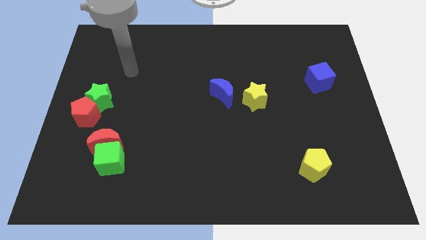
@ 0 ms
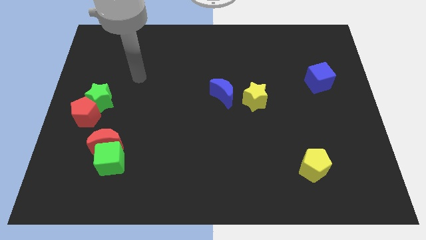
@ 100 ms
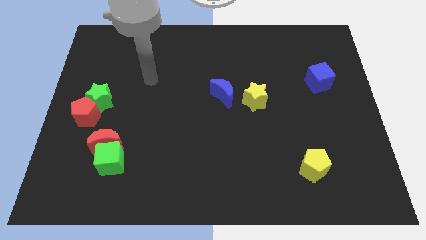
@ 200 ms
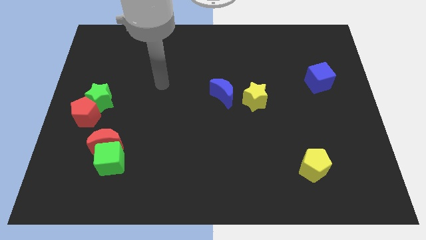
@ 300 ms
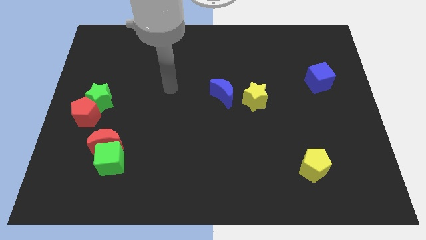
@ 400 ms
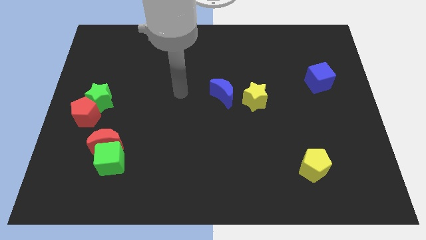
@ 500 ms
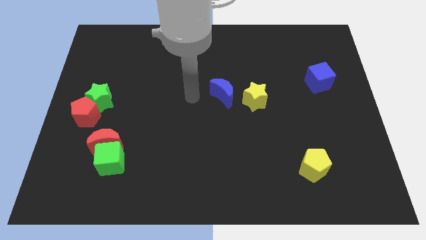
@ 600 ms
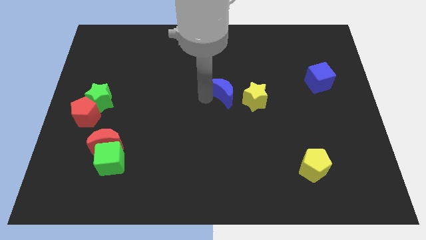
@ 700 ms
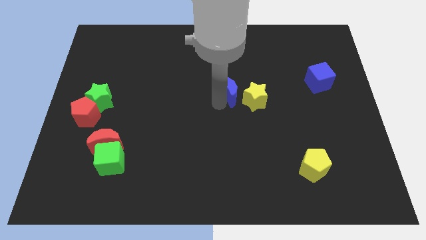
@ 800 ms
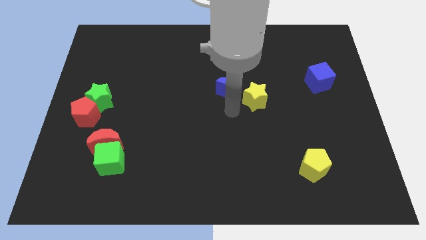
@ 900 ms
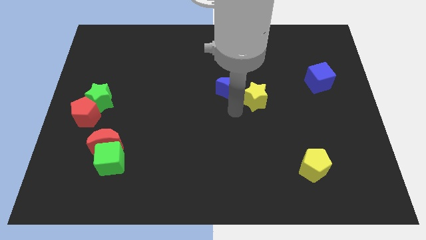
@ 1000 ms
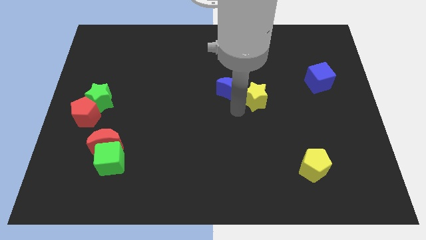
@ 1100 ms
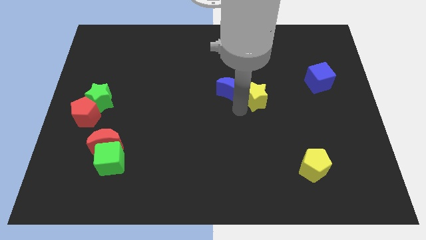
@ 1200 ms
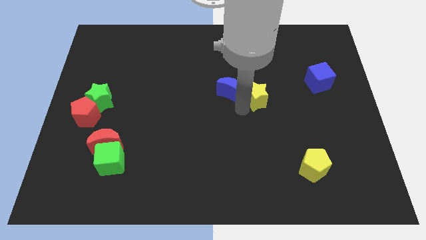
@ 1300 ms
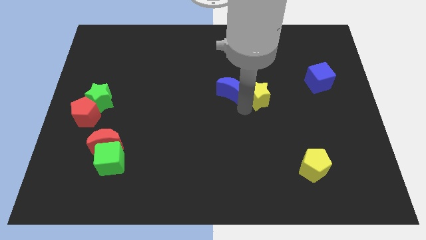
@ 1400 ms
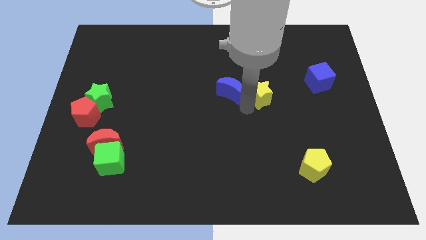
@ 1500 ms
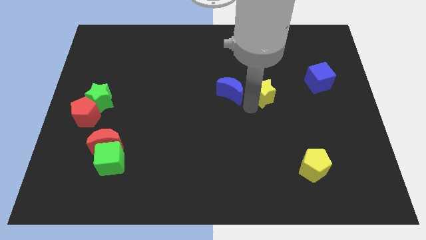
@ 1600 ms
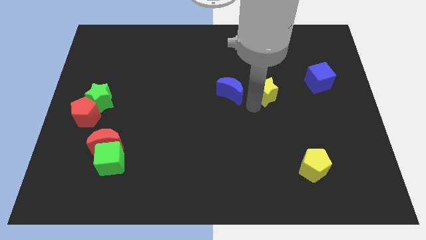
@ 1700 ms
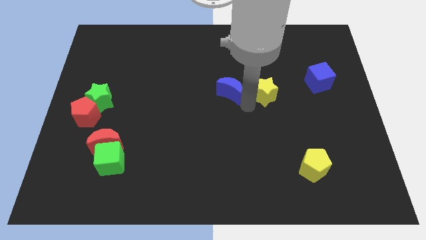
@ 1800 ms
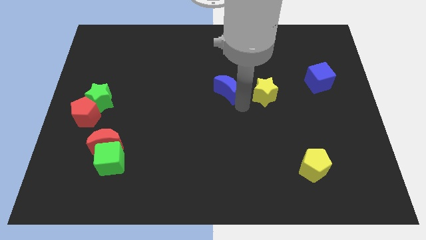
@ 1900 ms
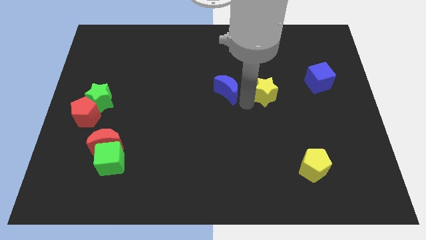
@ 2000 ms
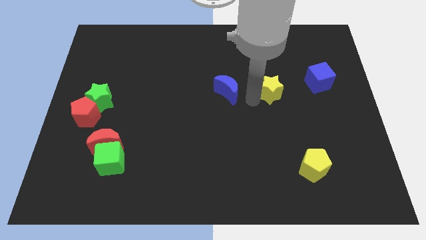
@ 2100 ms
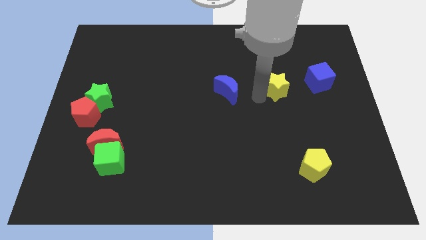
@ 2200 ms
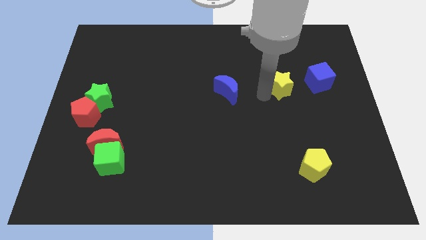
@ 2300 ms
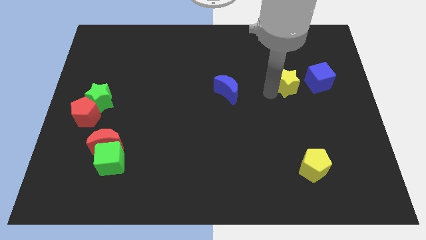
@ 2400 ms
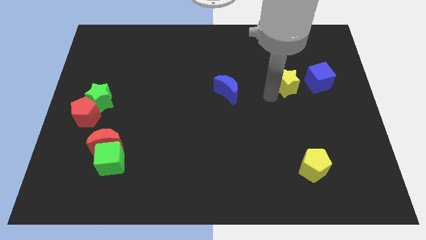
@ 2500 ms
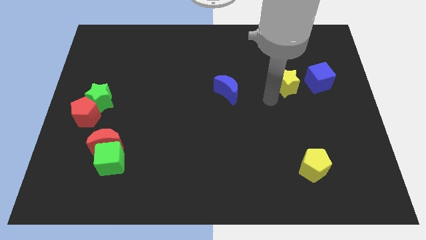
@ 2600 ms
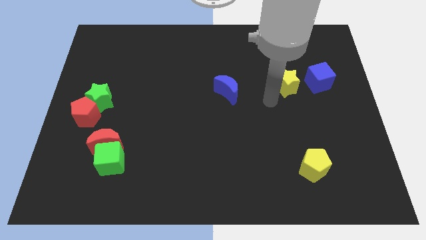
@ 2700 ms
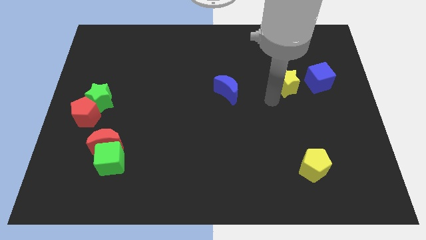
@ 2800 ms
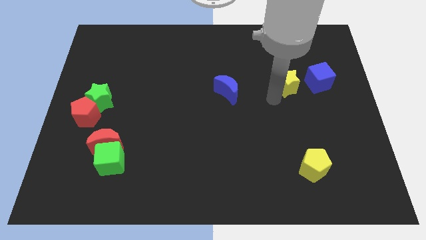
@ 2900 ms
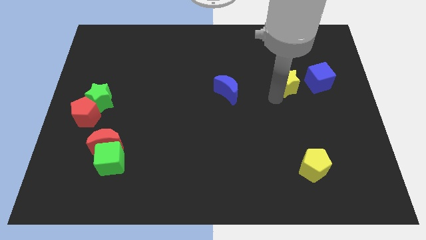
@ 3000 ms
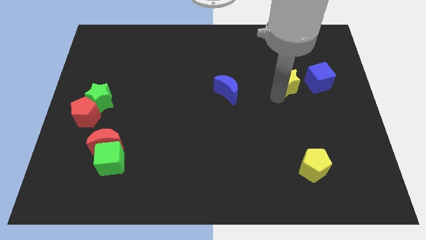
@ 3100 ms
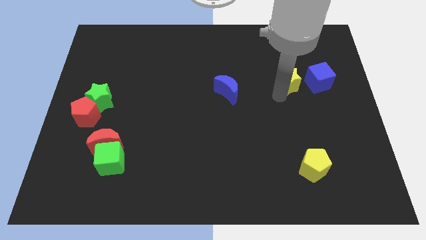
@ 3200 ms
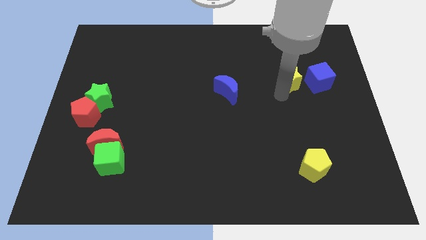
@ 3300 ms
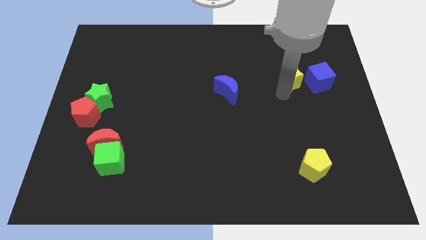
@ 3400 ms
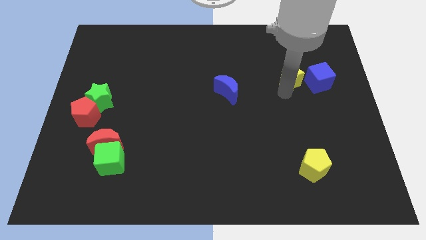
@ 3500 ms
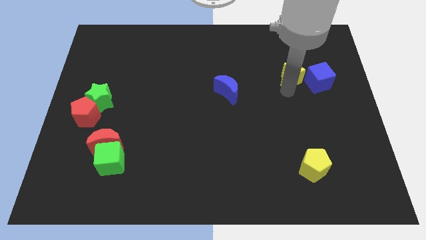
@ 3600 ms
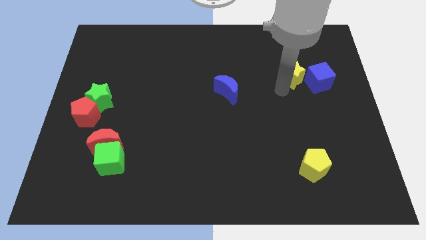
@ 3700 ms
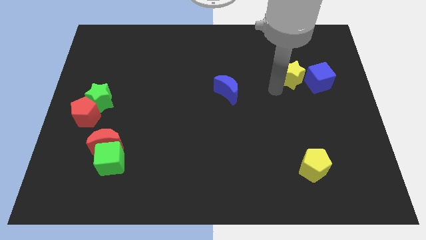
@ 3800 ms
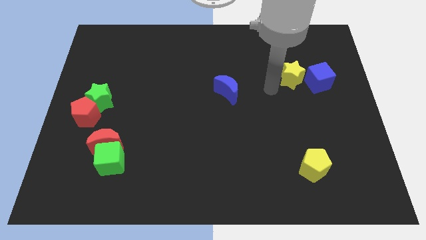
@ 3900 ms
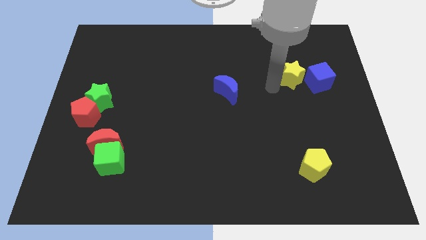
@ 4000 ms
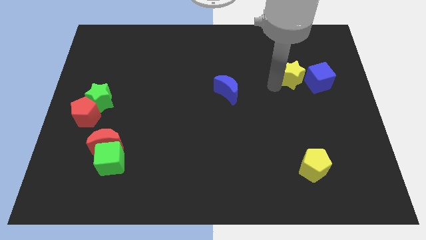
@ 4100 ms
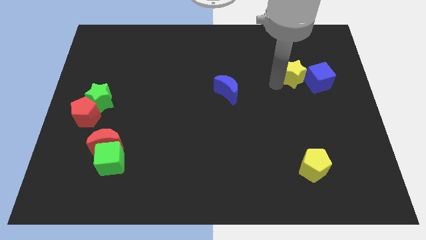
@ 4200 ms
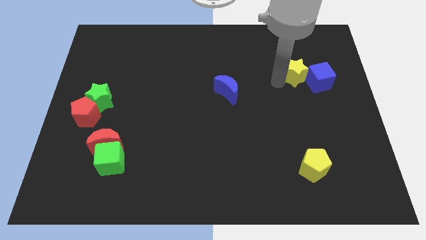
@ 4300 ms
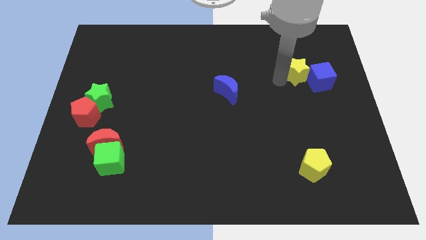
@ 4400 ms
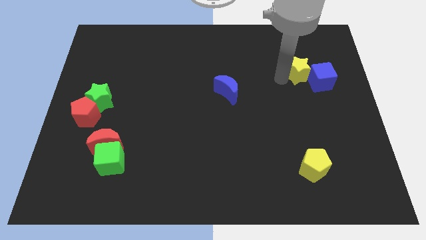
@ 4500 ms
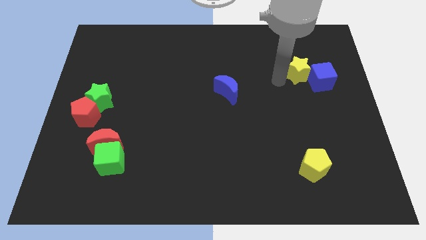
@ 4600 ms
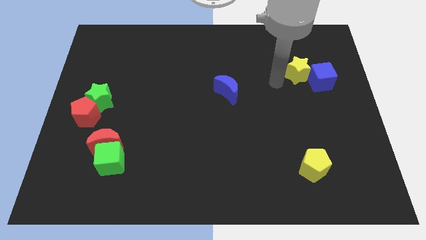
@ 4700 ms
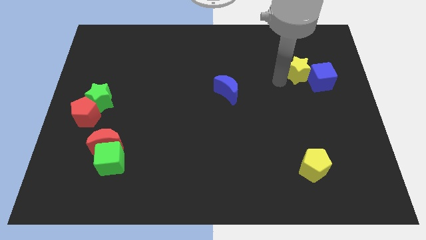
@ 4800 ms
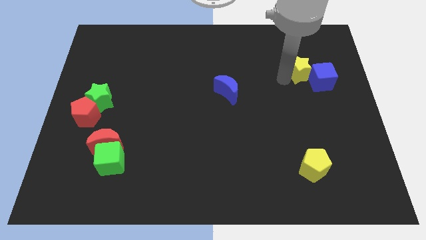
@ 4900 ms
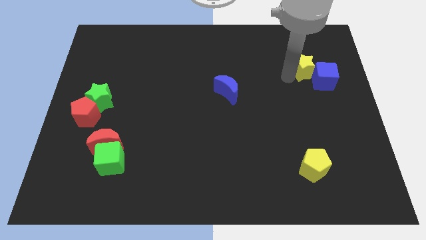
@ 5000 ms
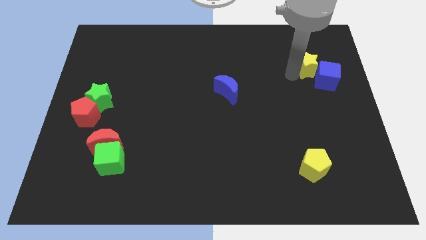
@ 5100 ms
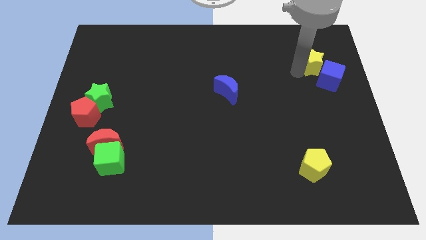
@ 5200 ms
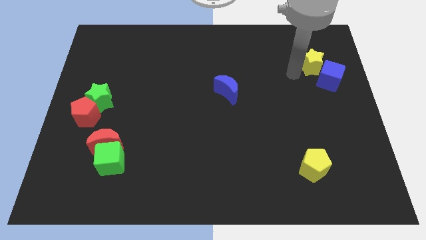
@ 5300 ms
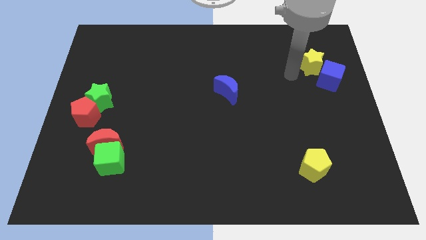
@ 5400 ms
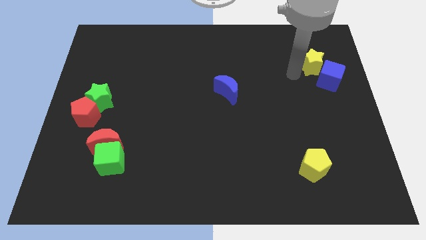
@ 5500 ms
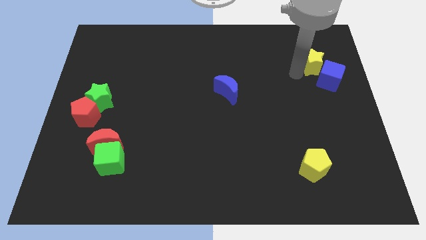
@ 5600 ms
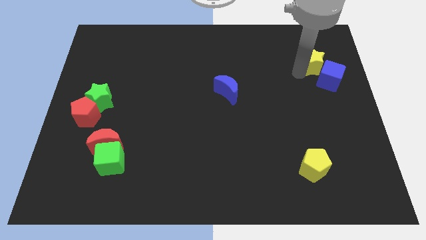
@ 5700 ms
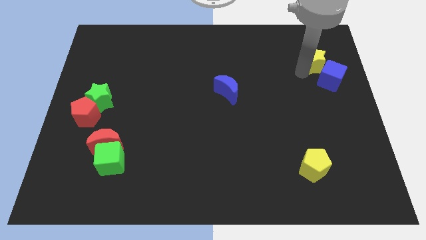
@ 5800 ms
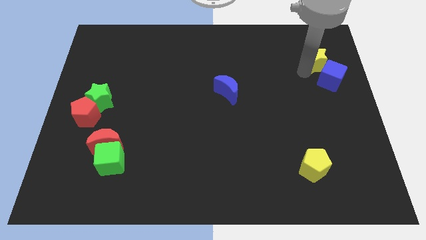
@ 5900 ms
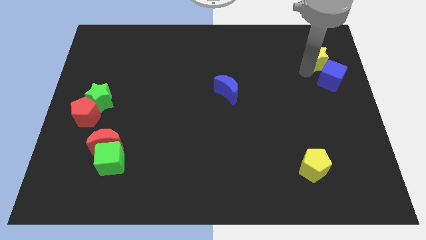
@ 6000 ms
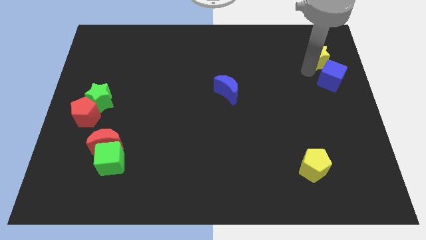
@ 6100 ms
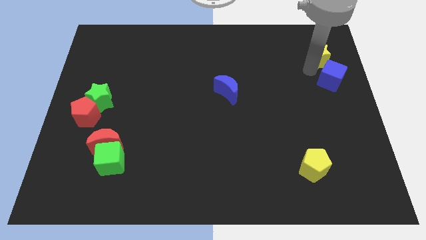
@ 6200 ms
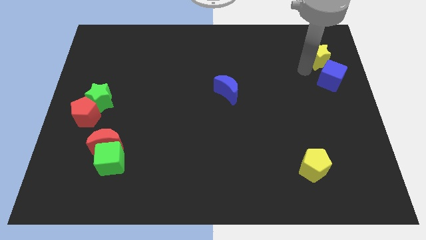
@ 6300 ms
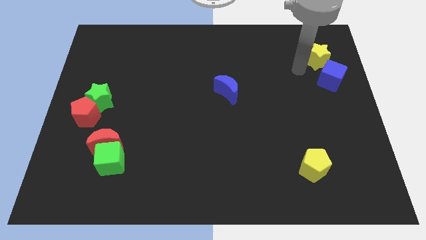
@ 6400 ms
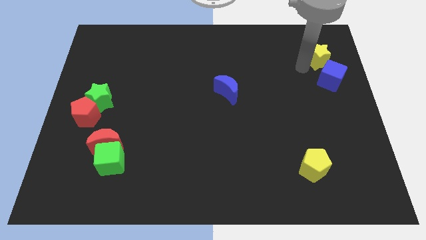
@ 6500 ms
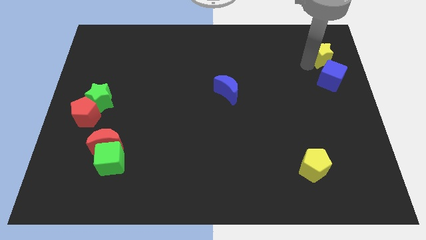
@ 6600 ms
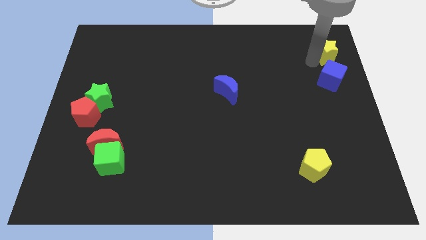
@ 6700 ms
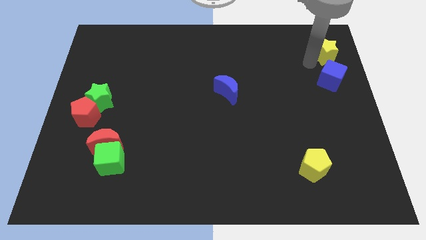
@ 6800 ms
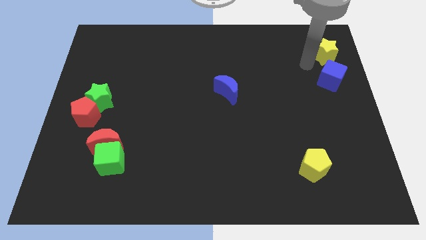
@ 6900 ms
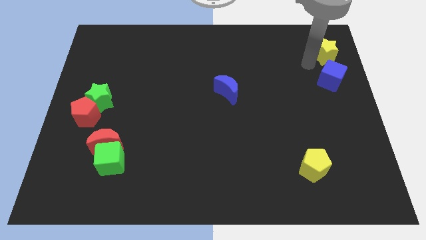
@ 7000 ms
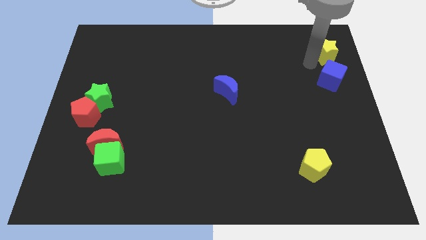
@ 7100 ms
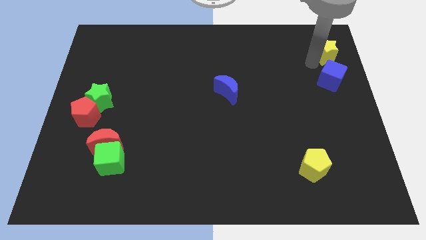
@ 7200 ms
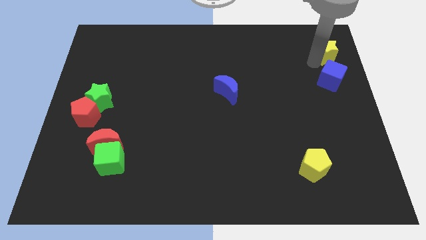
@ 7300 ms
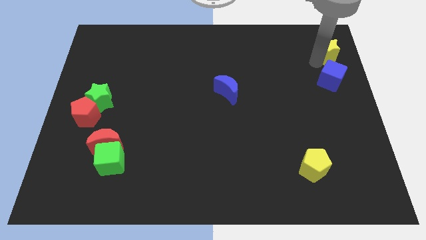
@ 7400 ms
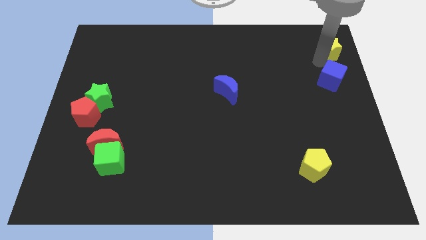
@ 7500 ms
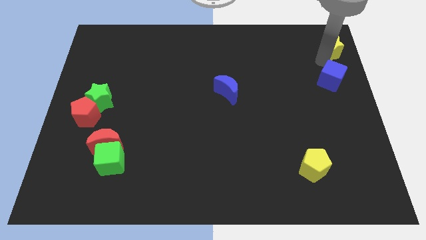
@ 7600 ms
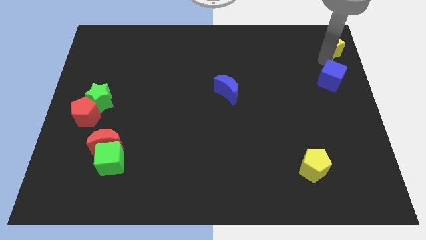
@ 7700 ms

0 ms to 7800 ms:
push the yellow star to the top right corner
